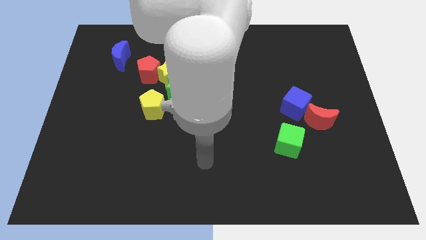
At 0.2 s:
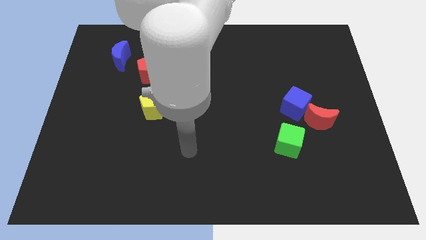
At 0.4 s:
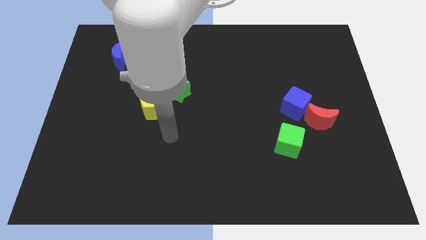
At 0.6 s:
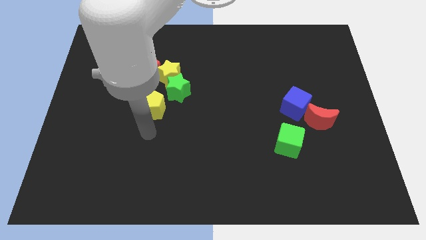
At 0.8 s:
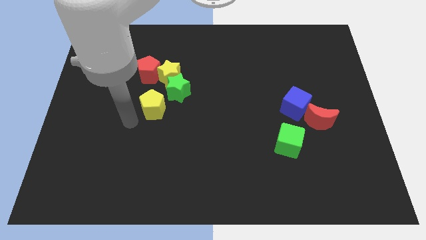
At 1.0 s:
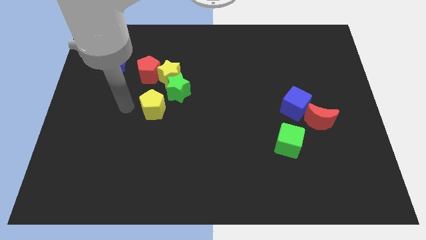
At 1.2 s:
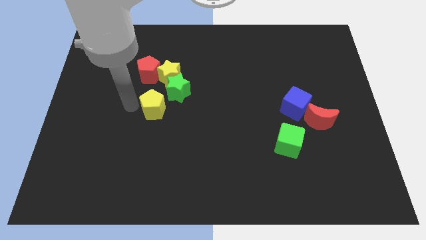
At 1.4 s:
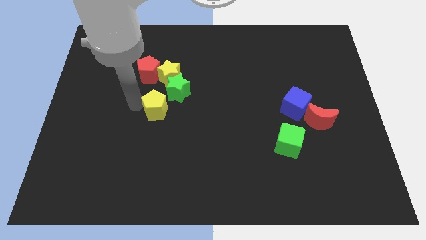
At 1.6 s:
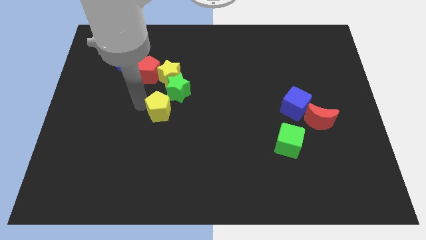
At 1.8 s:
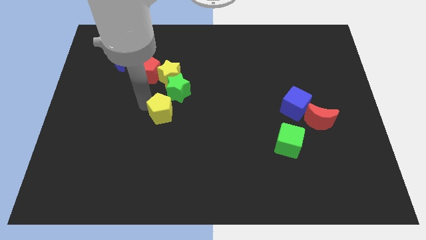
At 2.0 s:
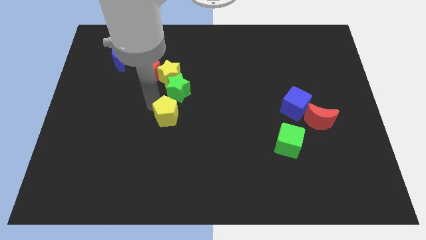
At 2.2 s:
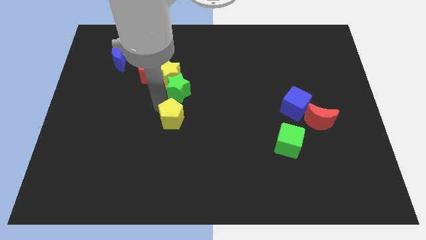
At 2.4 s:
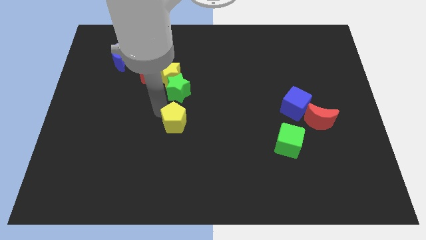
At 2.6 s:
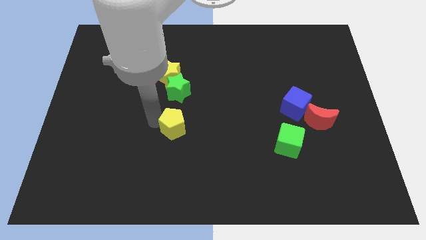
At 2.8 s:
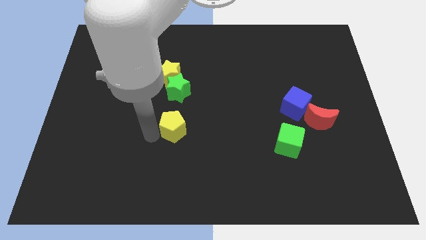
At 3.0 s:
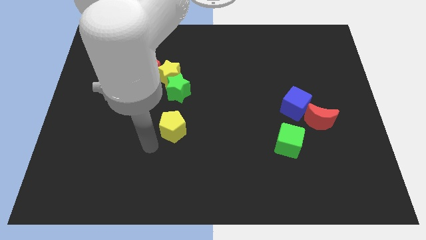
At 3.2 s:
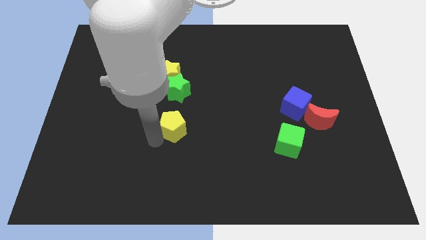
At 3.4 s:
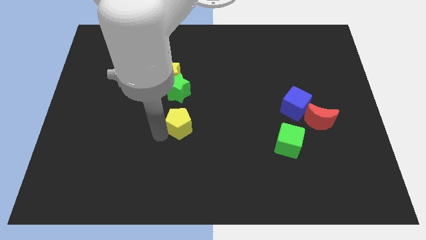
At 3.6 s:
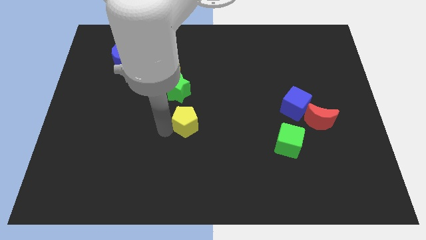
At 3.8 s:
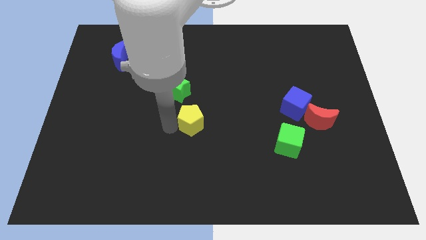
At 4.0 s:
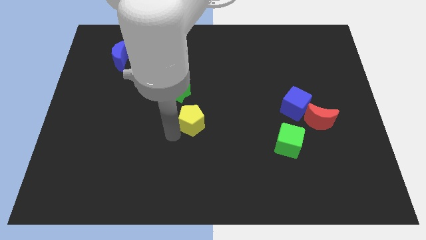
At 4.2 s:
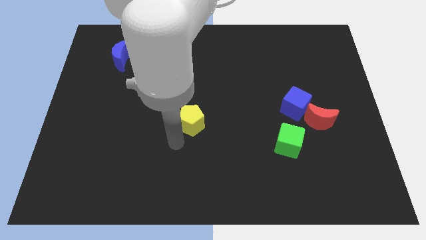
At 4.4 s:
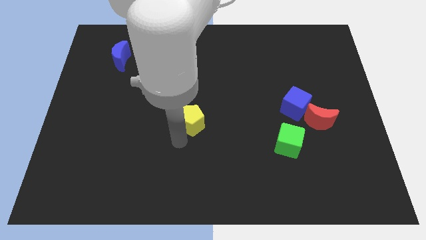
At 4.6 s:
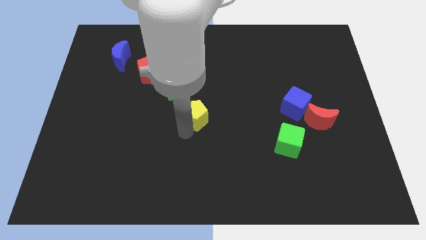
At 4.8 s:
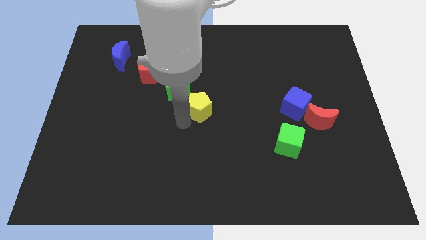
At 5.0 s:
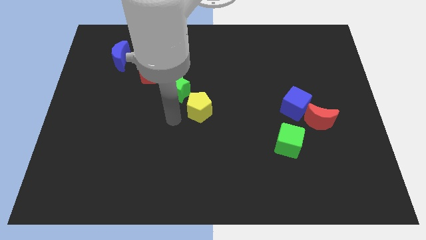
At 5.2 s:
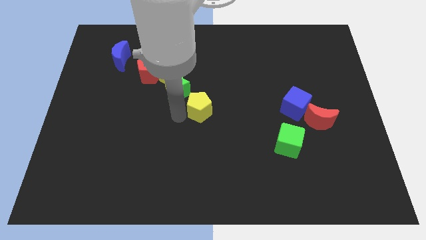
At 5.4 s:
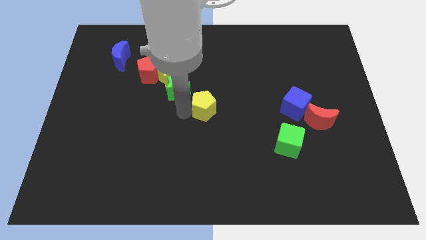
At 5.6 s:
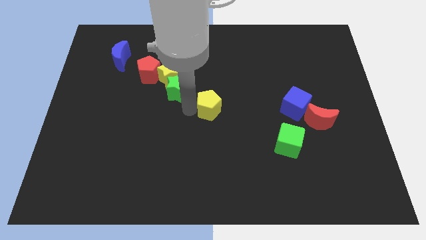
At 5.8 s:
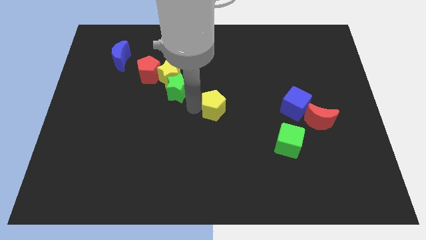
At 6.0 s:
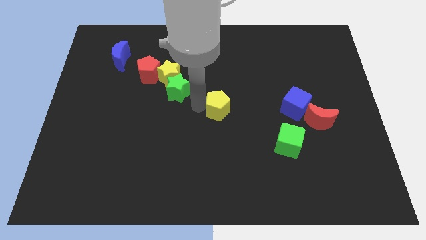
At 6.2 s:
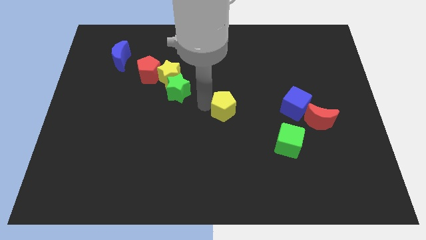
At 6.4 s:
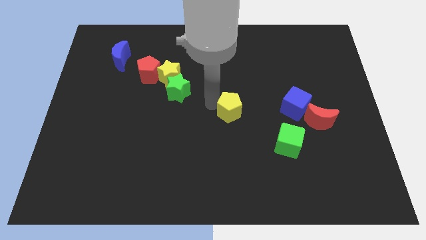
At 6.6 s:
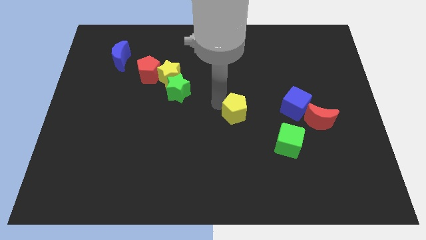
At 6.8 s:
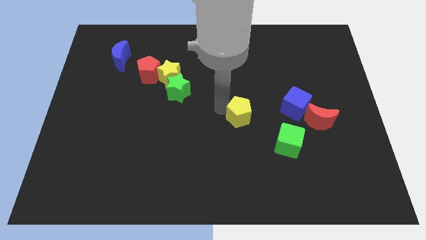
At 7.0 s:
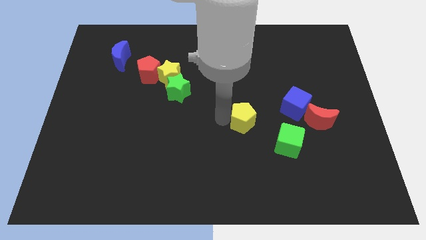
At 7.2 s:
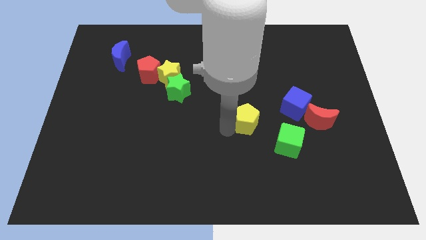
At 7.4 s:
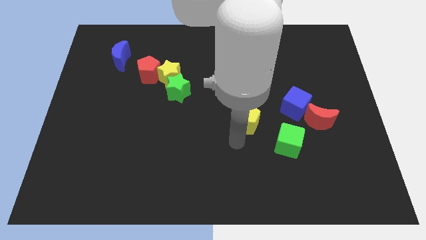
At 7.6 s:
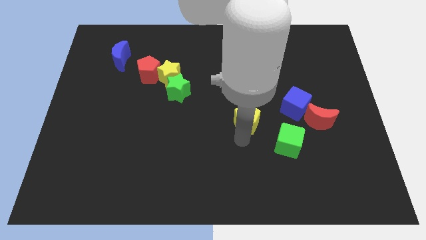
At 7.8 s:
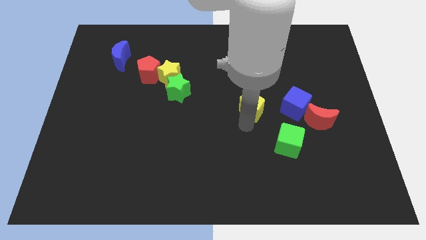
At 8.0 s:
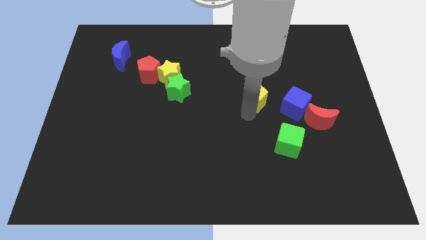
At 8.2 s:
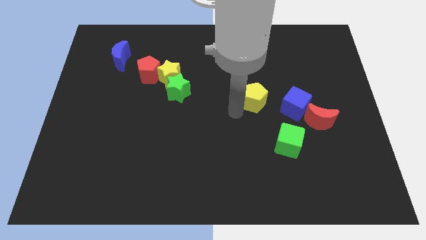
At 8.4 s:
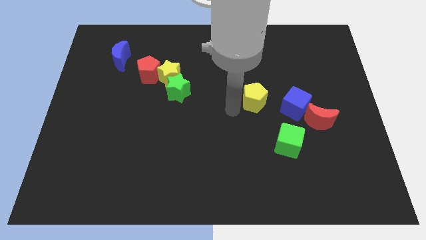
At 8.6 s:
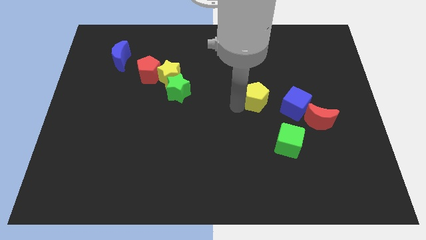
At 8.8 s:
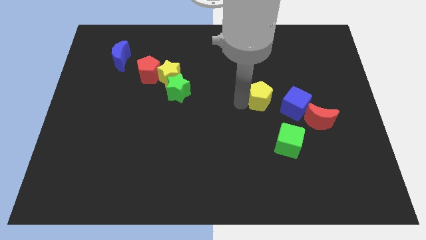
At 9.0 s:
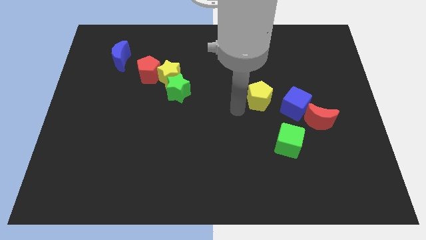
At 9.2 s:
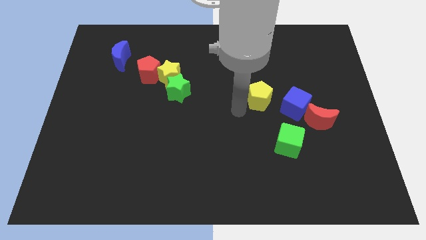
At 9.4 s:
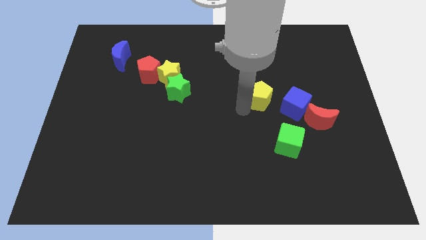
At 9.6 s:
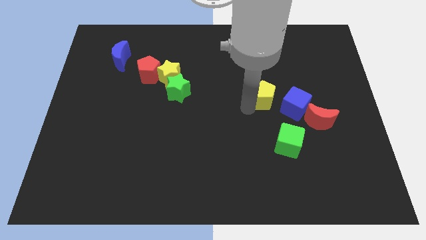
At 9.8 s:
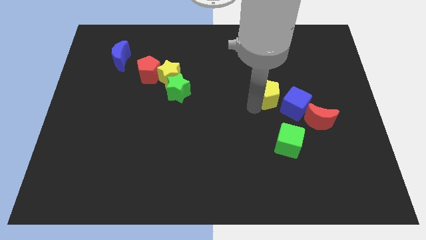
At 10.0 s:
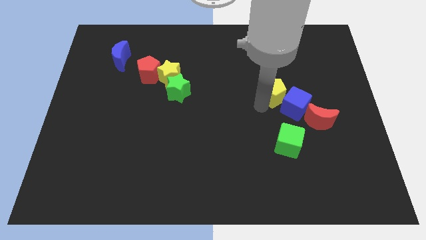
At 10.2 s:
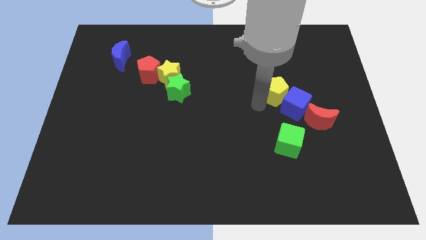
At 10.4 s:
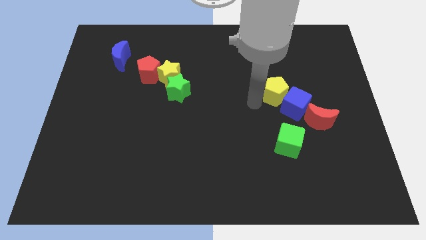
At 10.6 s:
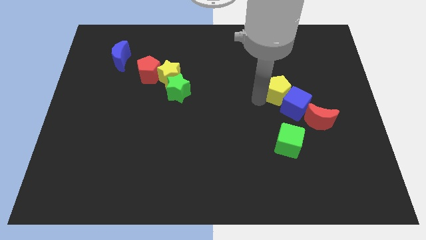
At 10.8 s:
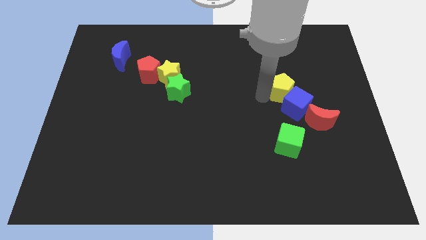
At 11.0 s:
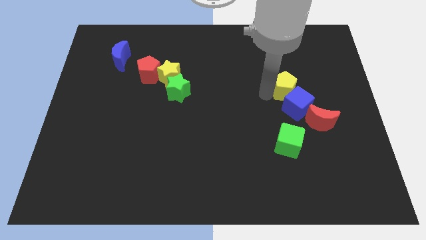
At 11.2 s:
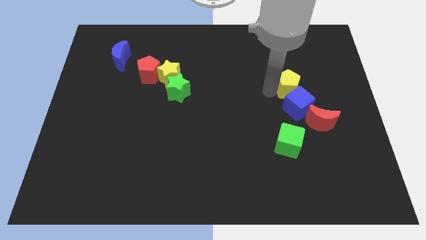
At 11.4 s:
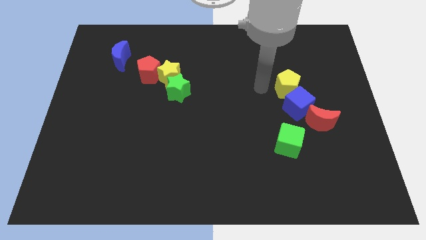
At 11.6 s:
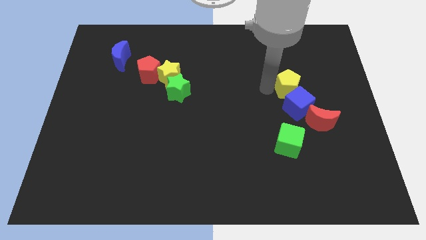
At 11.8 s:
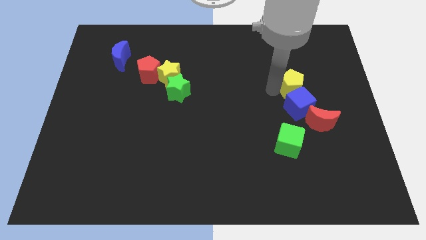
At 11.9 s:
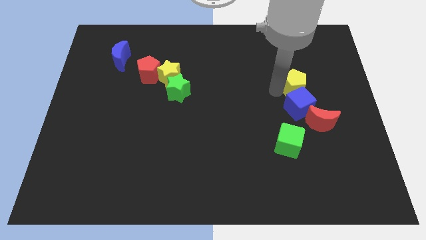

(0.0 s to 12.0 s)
push the yellow pentagon above the red moon

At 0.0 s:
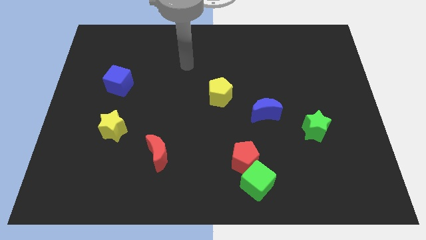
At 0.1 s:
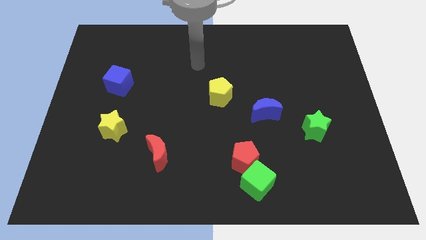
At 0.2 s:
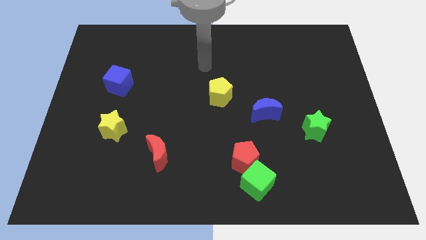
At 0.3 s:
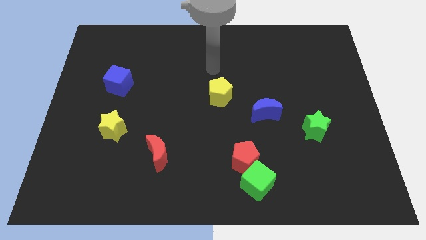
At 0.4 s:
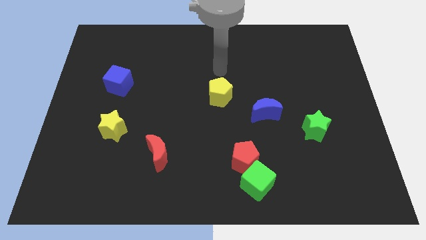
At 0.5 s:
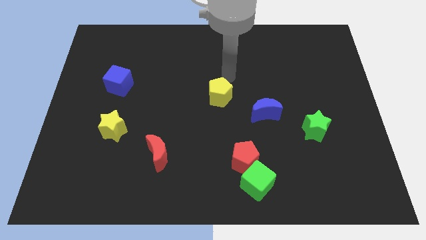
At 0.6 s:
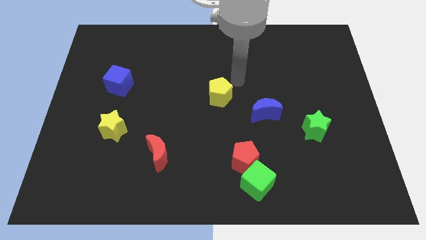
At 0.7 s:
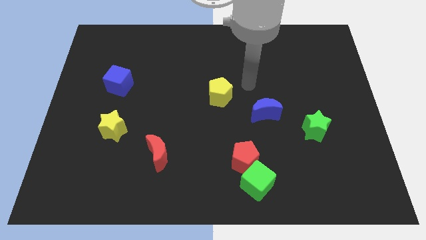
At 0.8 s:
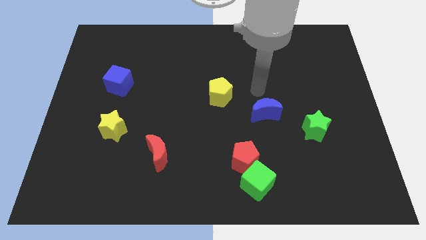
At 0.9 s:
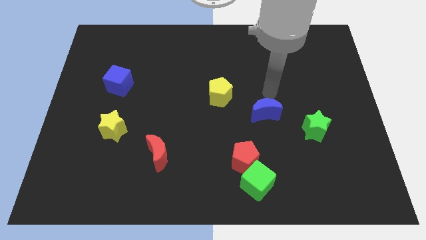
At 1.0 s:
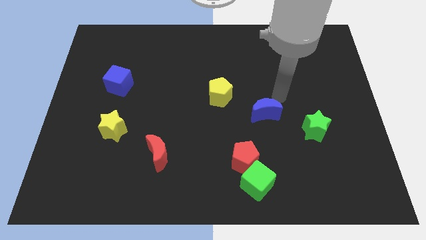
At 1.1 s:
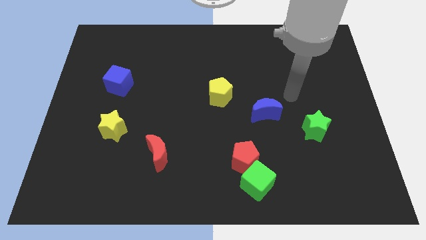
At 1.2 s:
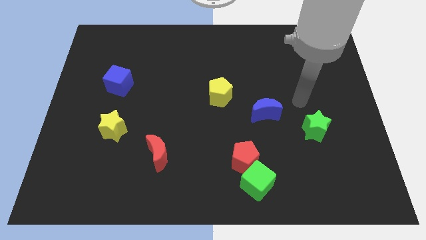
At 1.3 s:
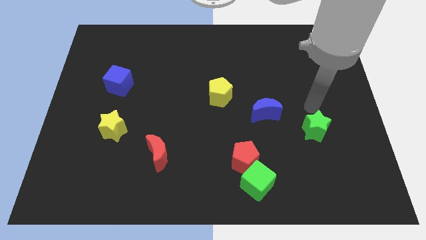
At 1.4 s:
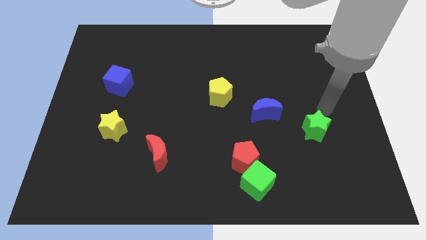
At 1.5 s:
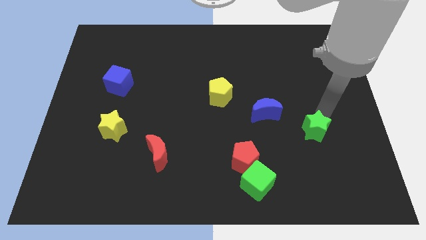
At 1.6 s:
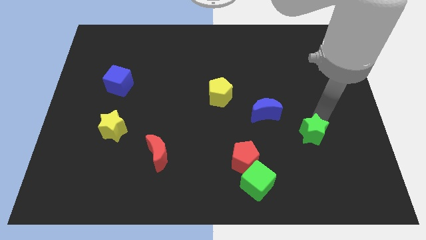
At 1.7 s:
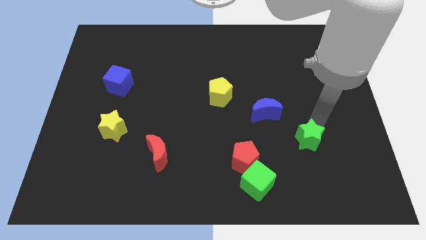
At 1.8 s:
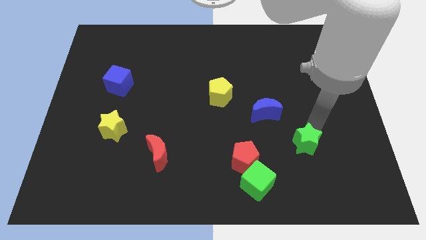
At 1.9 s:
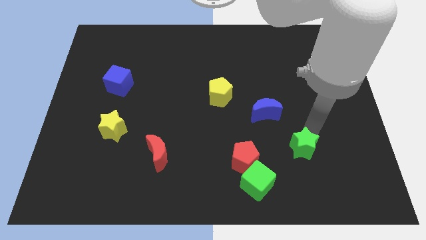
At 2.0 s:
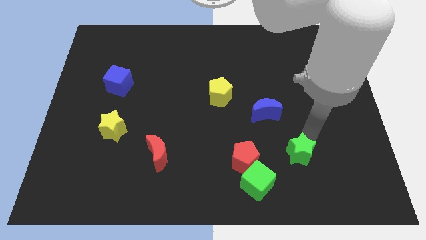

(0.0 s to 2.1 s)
move the green star diagonally up and to the right of the green cube
